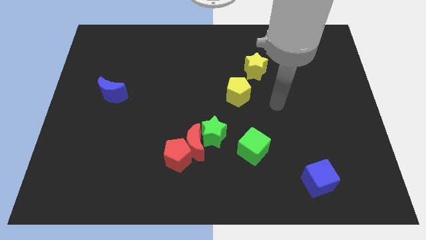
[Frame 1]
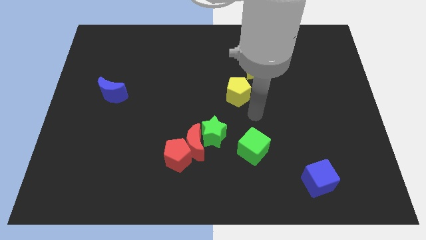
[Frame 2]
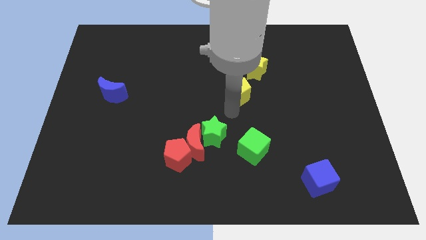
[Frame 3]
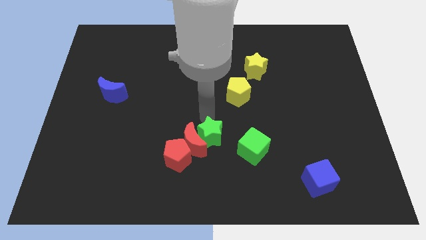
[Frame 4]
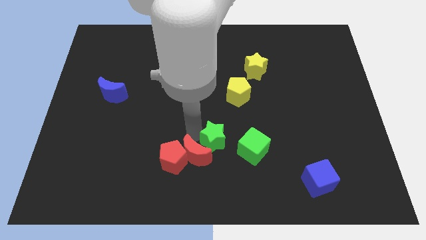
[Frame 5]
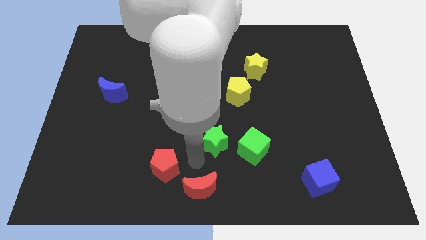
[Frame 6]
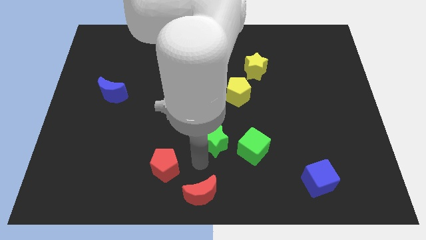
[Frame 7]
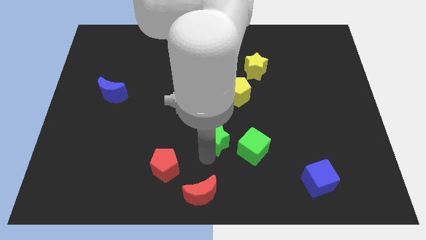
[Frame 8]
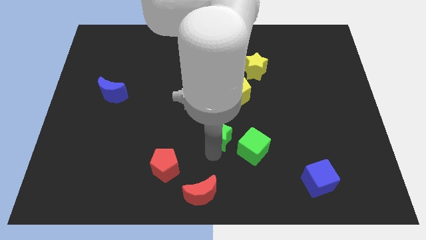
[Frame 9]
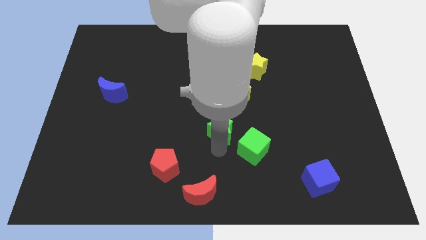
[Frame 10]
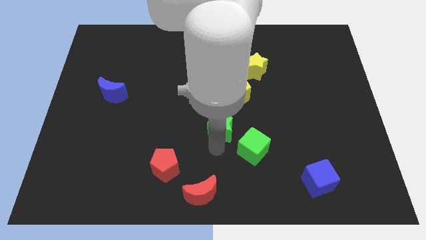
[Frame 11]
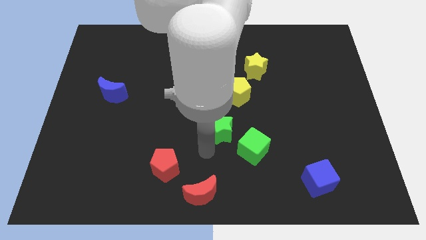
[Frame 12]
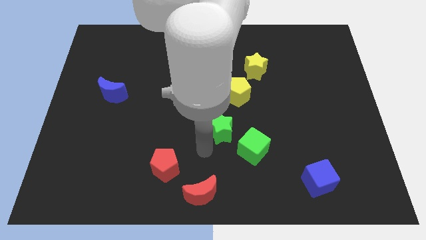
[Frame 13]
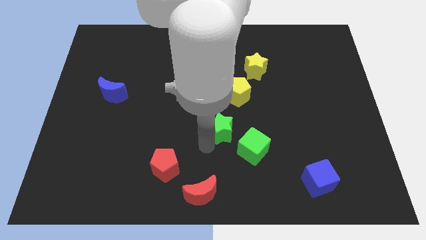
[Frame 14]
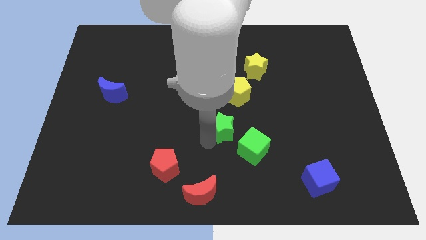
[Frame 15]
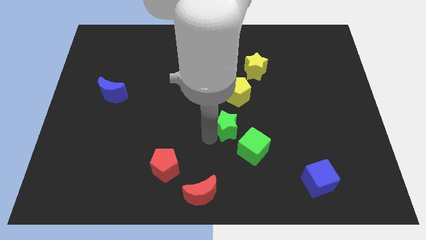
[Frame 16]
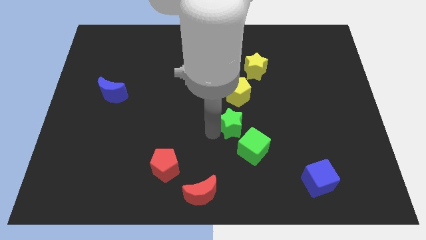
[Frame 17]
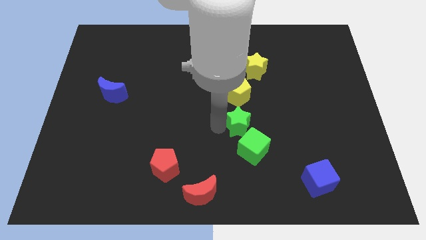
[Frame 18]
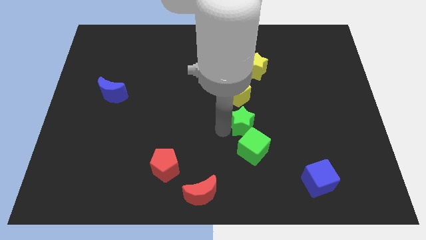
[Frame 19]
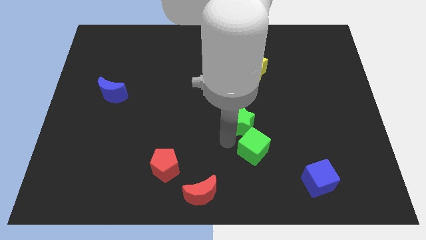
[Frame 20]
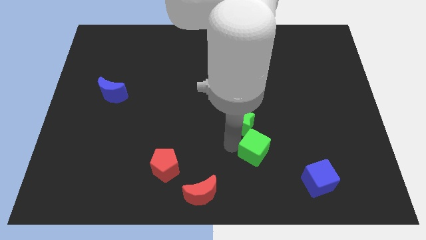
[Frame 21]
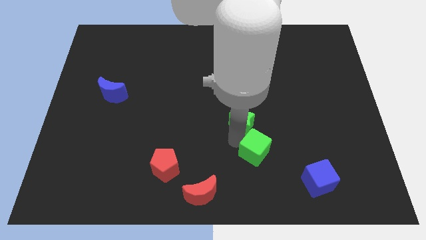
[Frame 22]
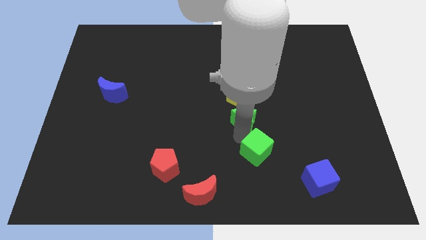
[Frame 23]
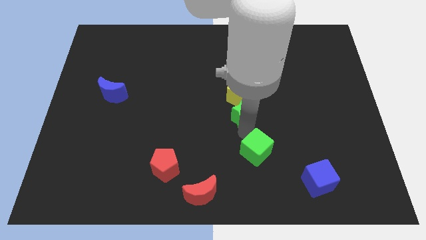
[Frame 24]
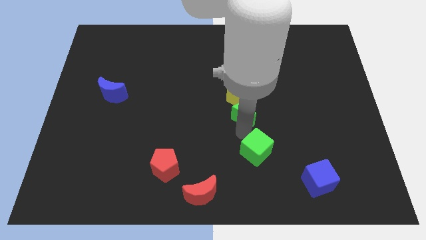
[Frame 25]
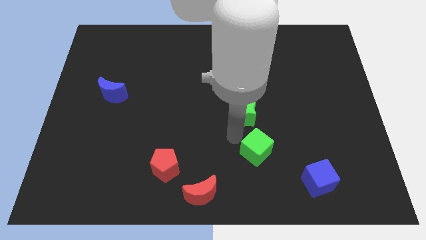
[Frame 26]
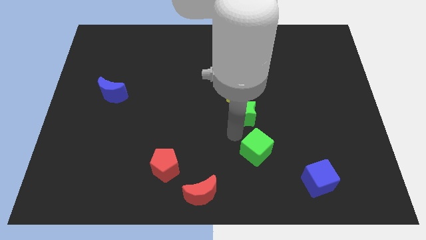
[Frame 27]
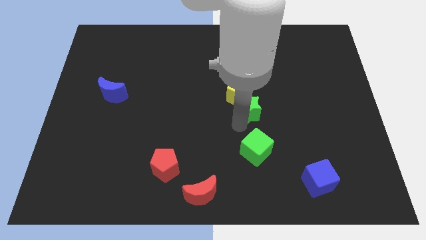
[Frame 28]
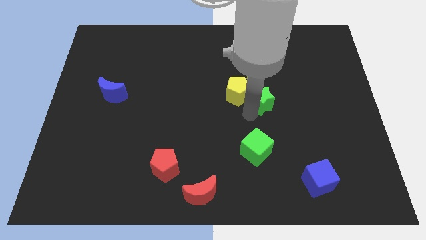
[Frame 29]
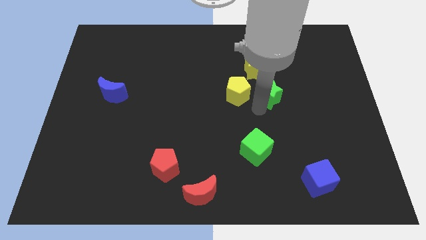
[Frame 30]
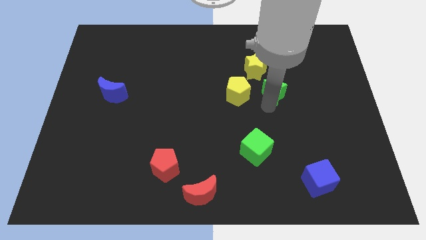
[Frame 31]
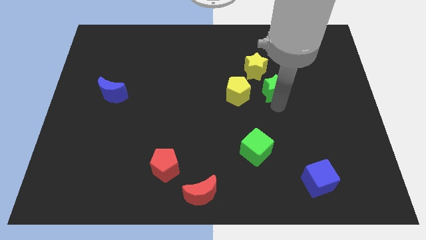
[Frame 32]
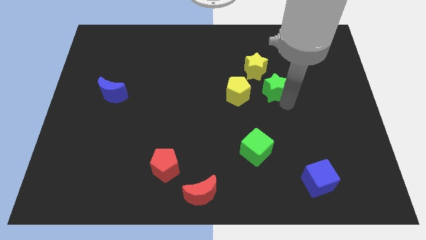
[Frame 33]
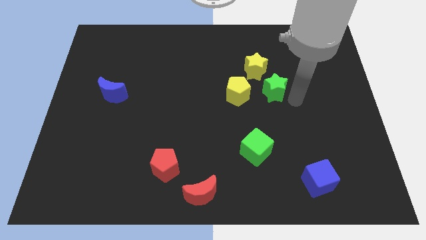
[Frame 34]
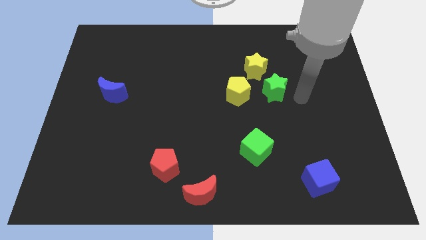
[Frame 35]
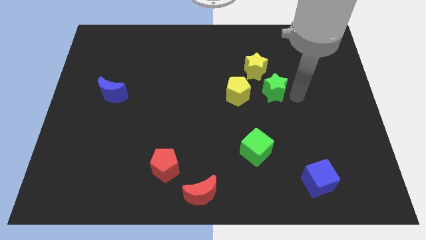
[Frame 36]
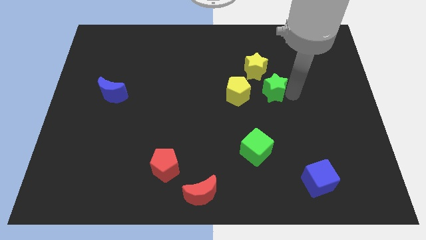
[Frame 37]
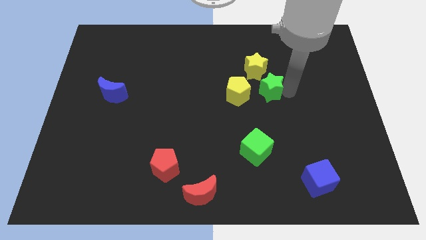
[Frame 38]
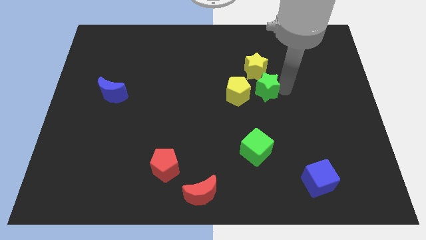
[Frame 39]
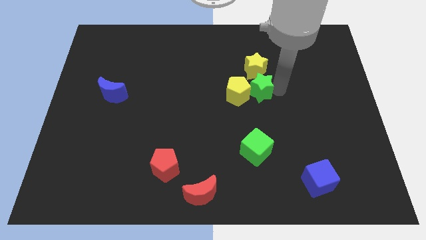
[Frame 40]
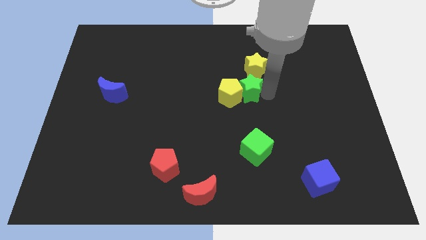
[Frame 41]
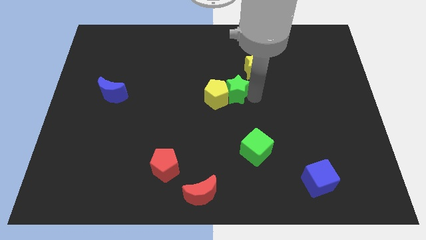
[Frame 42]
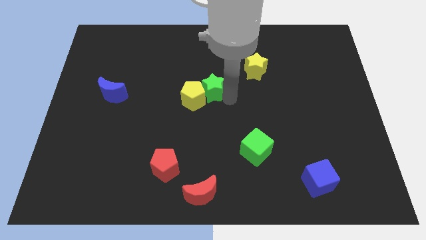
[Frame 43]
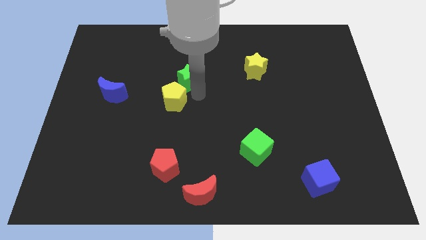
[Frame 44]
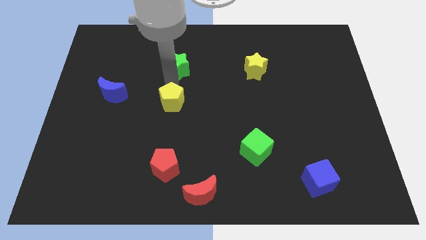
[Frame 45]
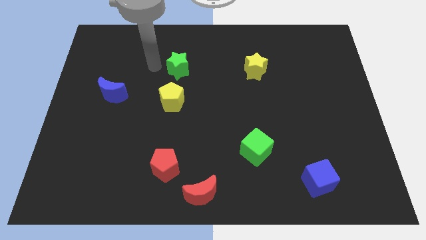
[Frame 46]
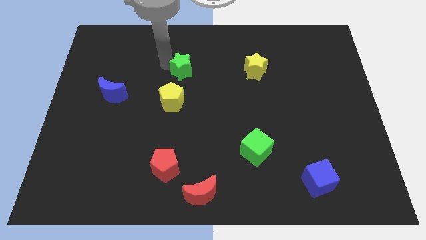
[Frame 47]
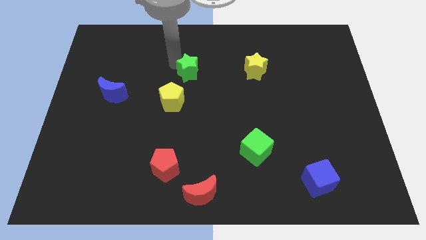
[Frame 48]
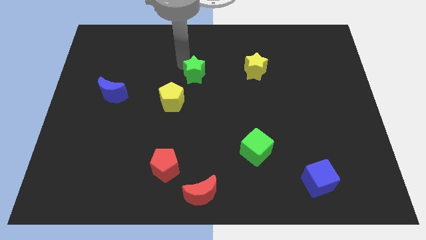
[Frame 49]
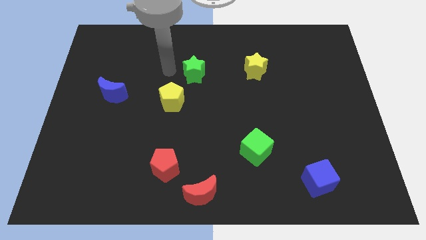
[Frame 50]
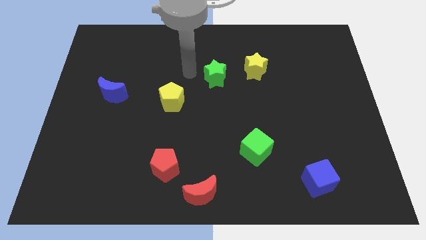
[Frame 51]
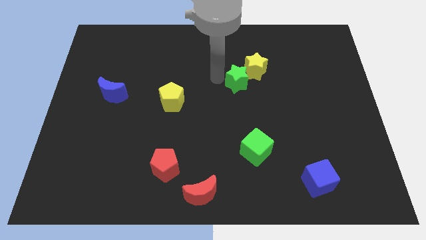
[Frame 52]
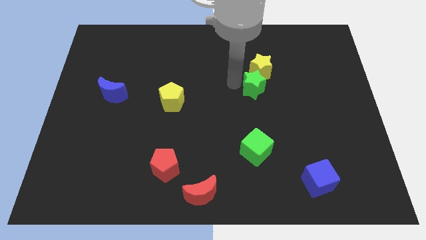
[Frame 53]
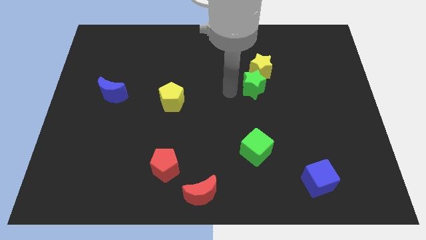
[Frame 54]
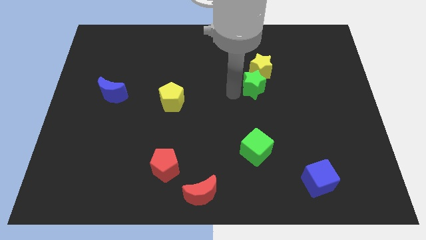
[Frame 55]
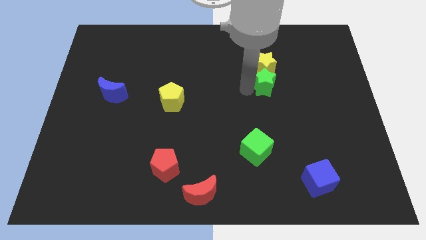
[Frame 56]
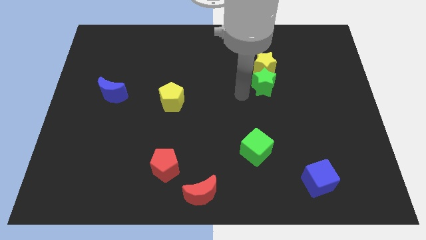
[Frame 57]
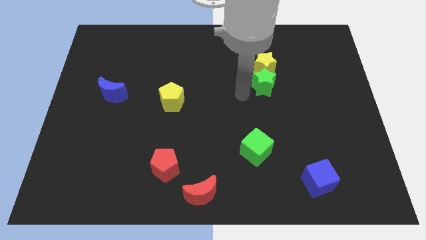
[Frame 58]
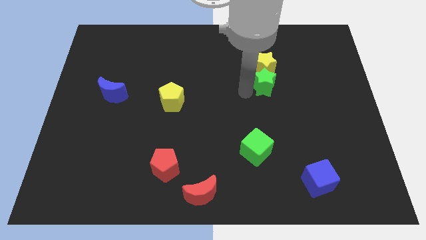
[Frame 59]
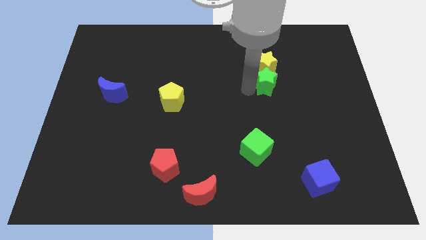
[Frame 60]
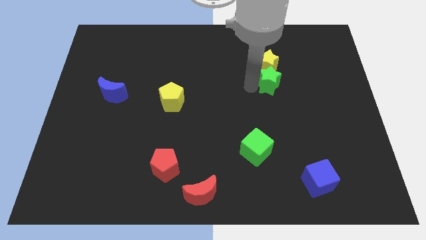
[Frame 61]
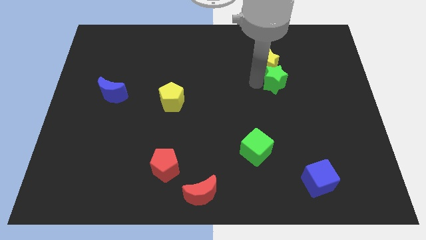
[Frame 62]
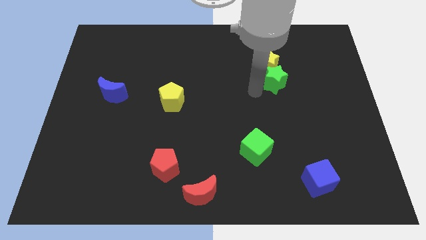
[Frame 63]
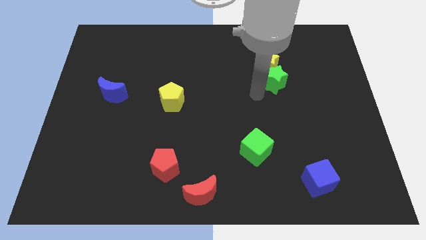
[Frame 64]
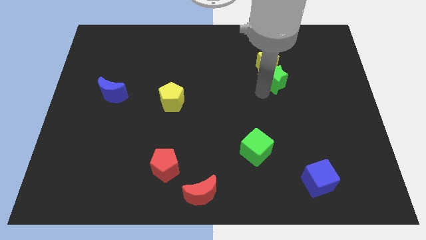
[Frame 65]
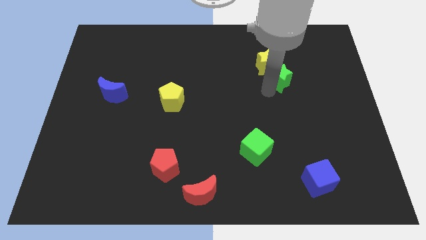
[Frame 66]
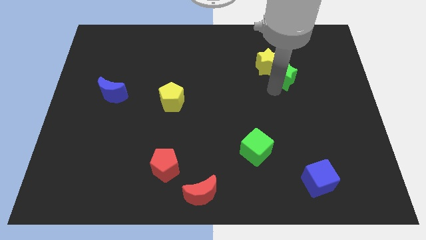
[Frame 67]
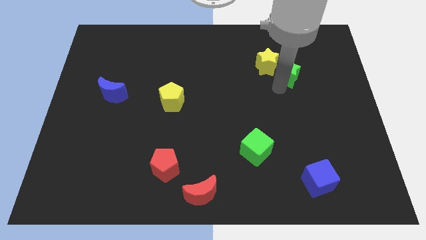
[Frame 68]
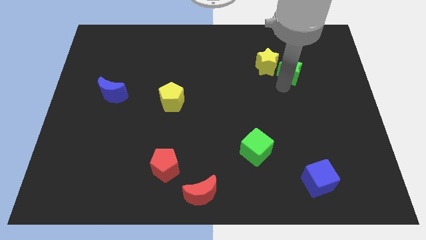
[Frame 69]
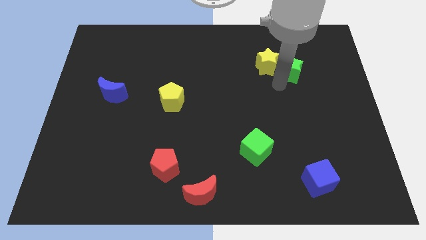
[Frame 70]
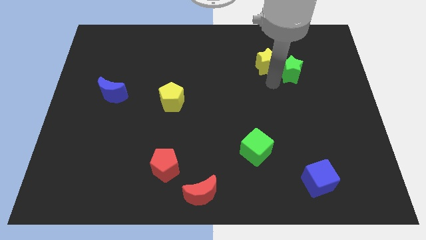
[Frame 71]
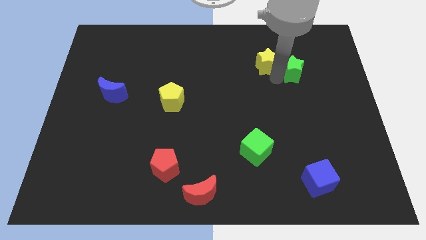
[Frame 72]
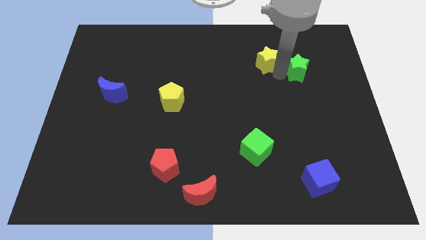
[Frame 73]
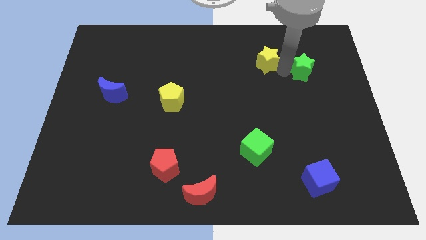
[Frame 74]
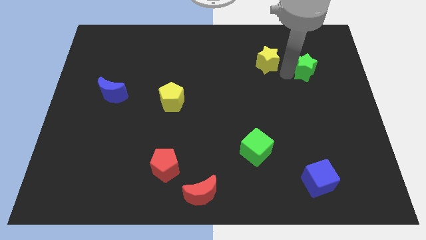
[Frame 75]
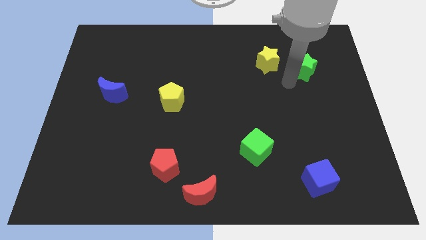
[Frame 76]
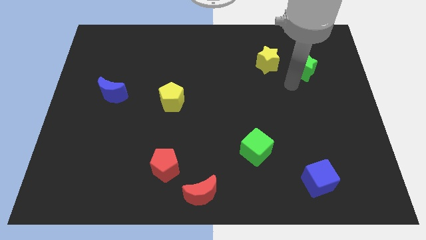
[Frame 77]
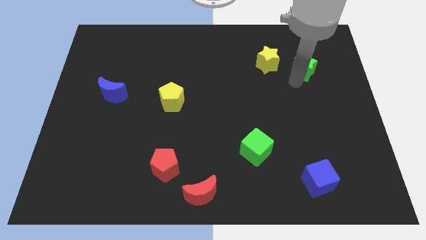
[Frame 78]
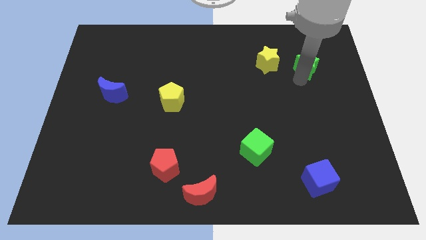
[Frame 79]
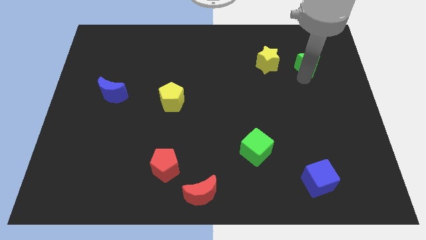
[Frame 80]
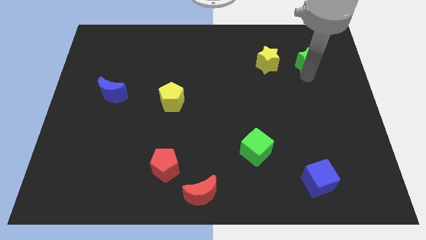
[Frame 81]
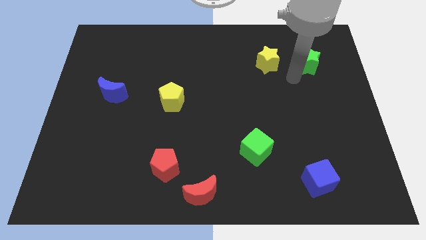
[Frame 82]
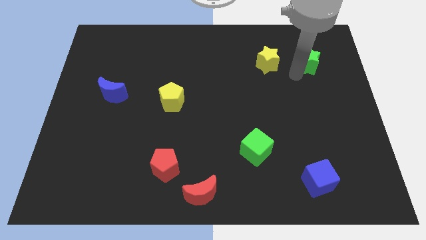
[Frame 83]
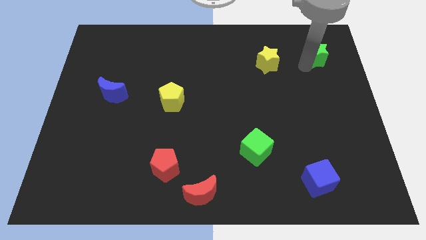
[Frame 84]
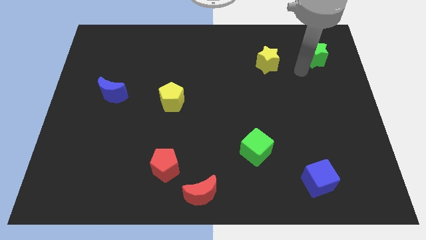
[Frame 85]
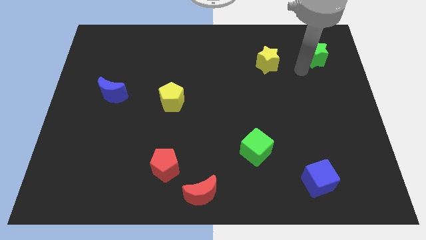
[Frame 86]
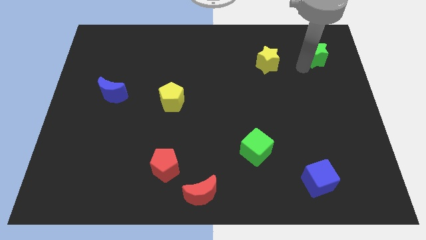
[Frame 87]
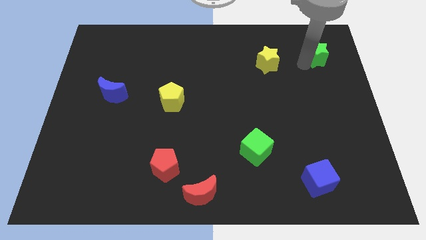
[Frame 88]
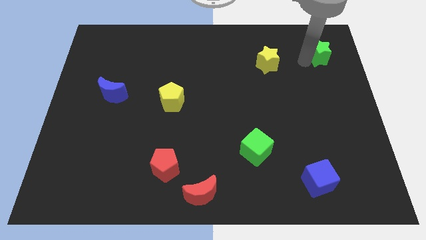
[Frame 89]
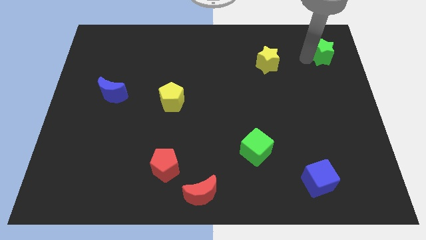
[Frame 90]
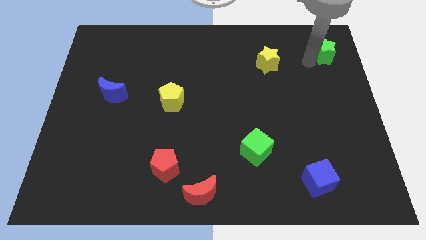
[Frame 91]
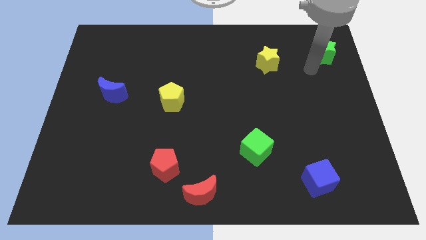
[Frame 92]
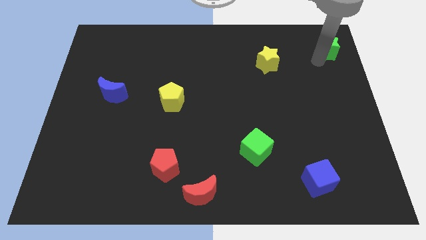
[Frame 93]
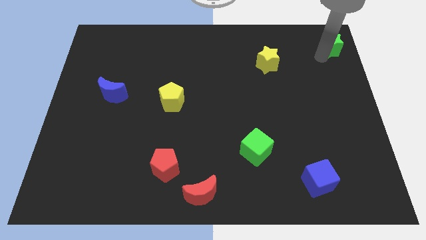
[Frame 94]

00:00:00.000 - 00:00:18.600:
put the green star to the top right corner
